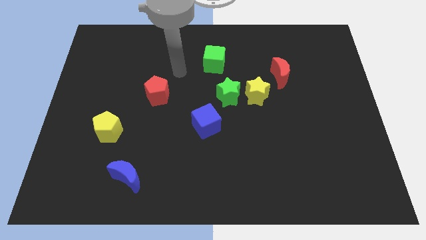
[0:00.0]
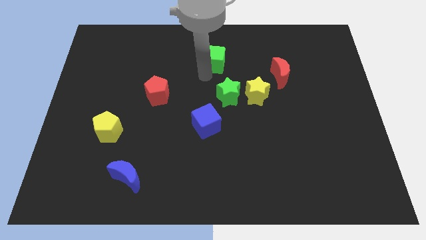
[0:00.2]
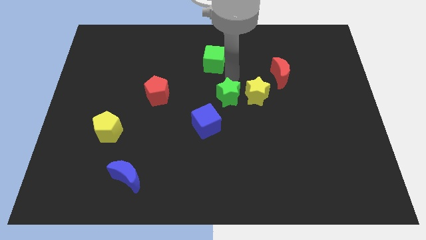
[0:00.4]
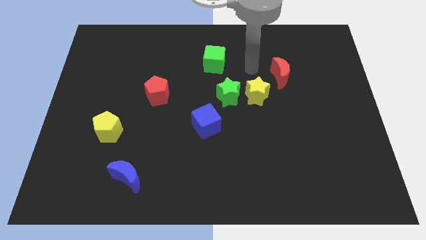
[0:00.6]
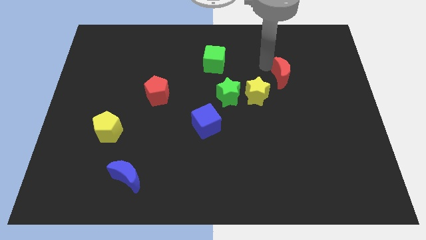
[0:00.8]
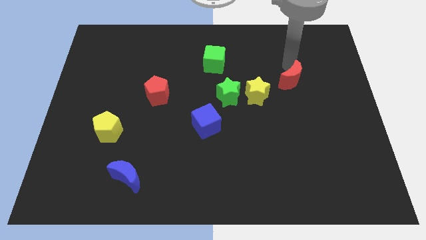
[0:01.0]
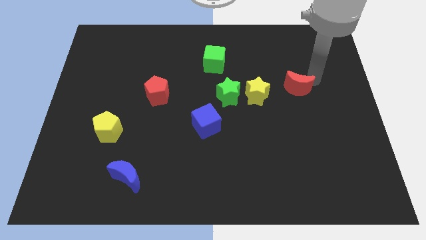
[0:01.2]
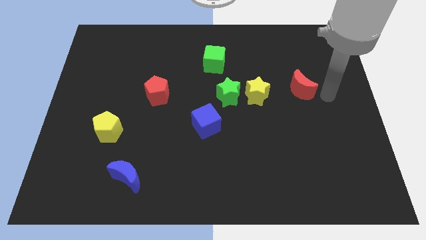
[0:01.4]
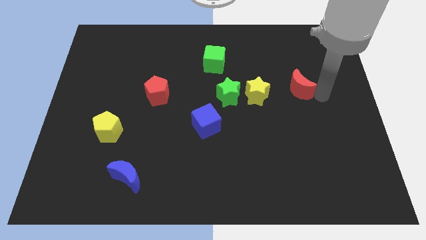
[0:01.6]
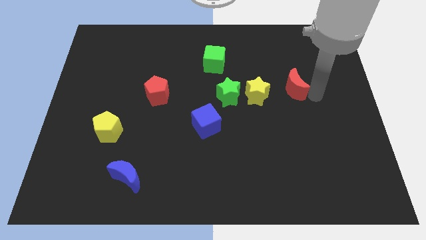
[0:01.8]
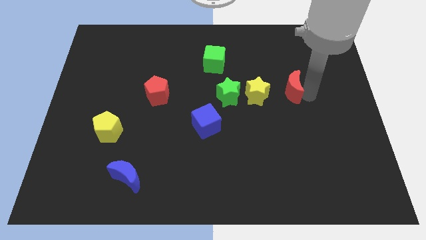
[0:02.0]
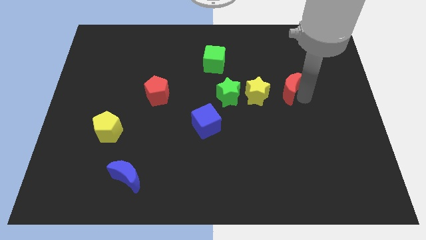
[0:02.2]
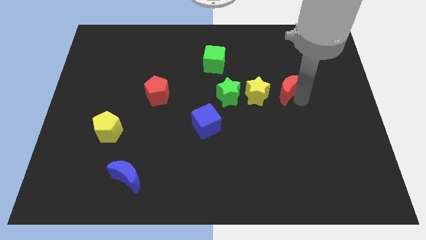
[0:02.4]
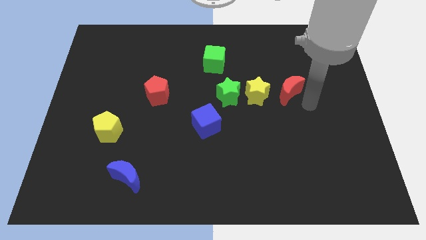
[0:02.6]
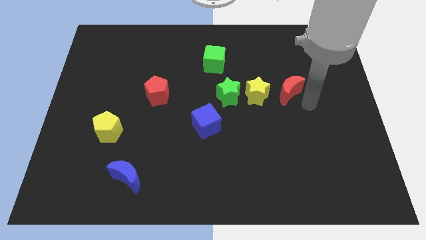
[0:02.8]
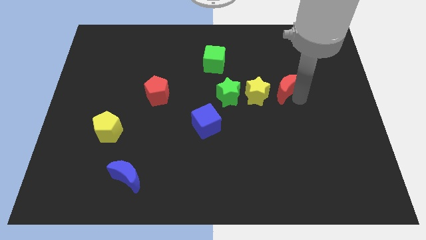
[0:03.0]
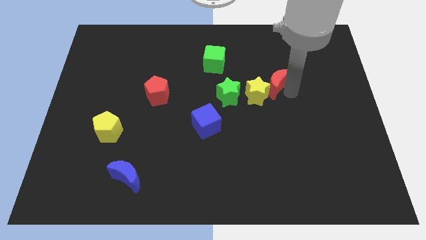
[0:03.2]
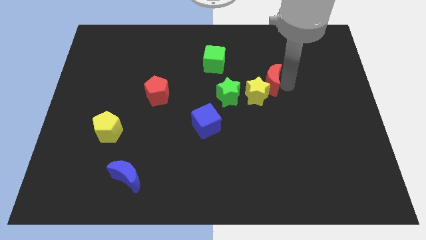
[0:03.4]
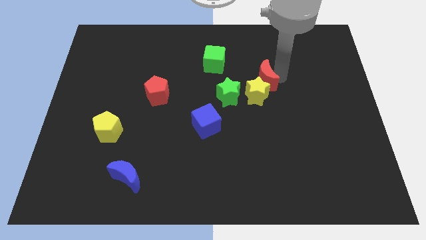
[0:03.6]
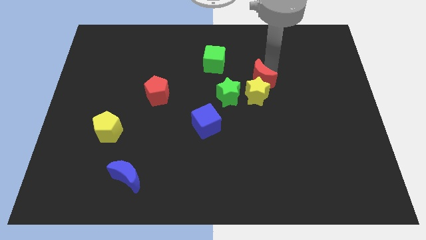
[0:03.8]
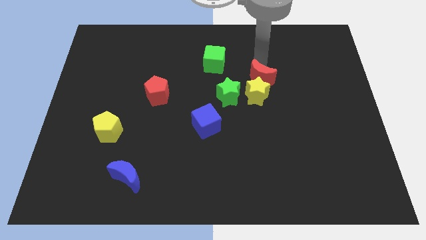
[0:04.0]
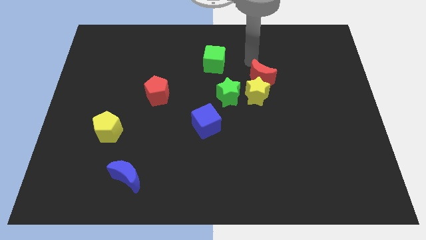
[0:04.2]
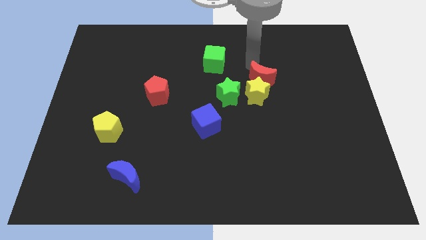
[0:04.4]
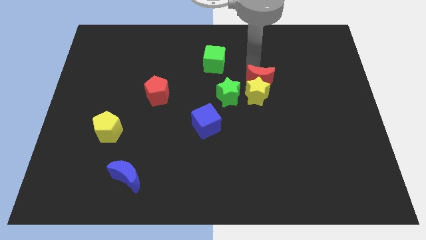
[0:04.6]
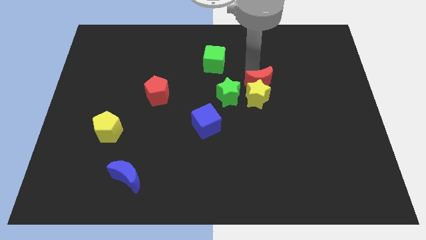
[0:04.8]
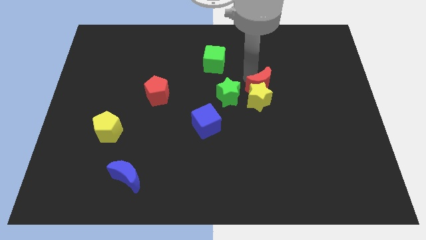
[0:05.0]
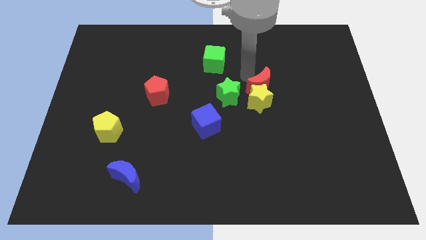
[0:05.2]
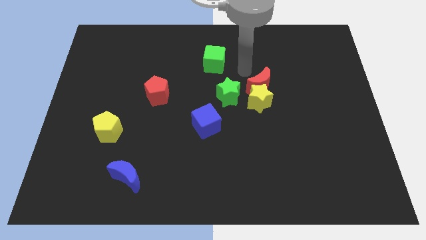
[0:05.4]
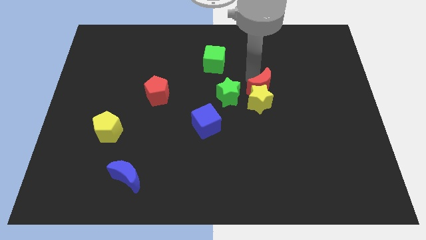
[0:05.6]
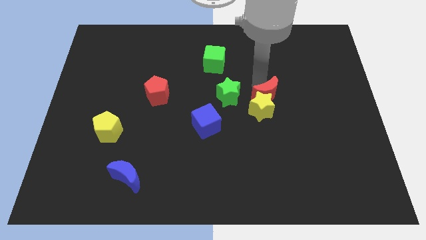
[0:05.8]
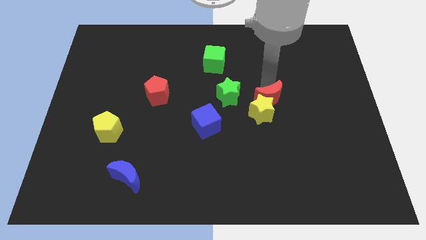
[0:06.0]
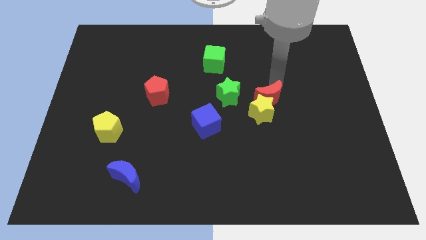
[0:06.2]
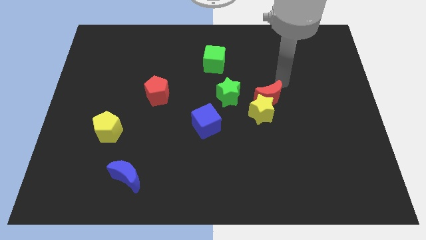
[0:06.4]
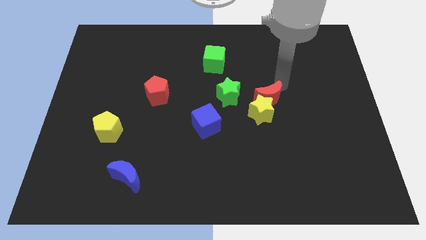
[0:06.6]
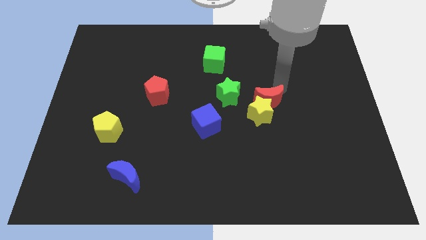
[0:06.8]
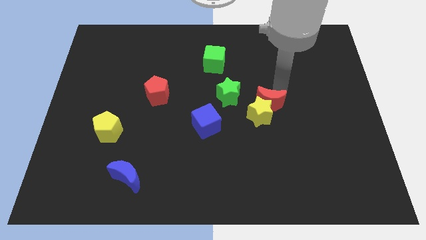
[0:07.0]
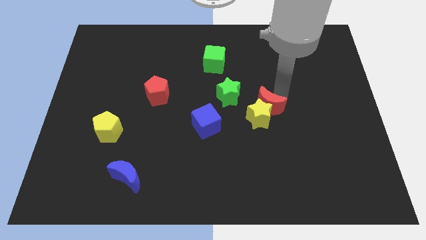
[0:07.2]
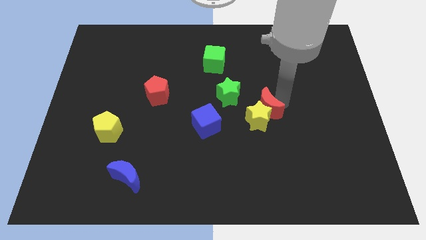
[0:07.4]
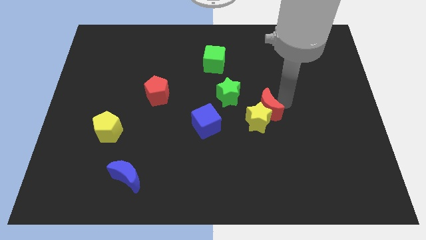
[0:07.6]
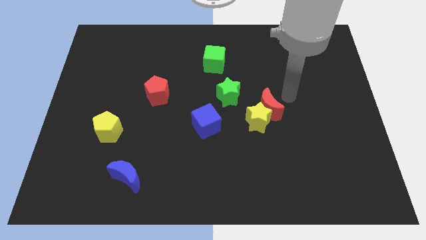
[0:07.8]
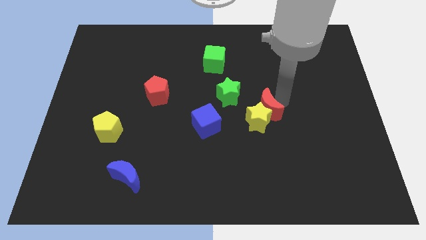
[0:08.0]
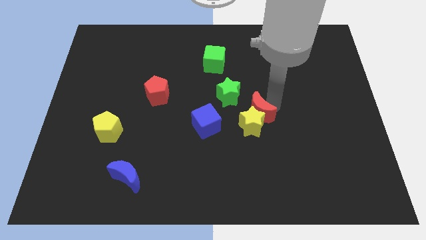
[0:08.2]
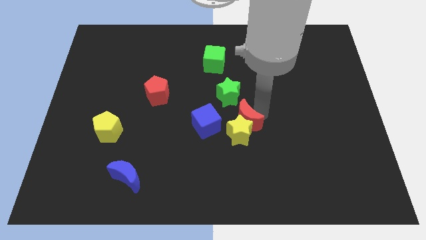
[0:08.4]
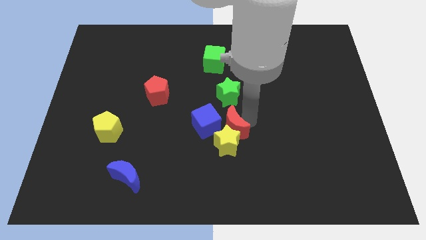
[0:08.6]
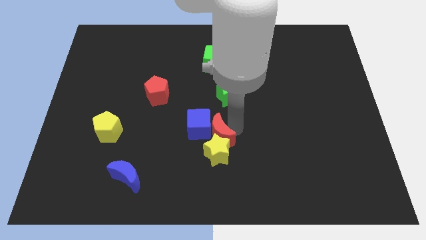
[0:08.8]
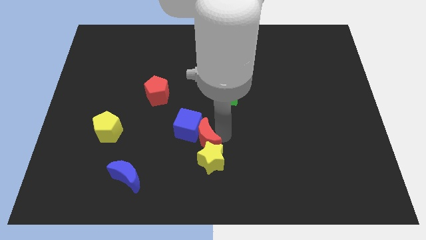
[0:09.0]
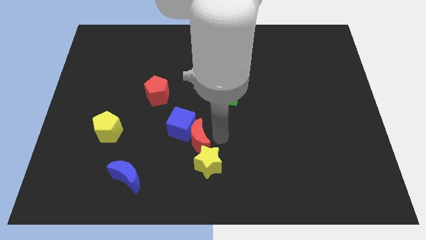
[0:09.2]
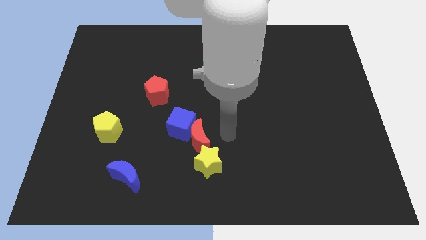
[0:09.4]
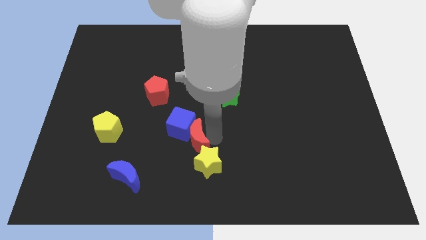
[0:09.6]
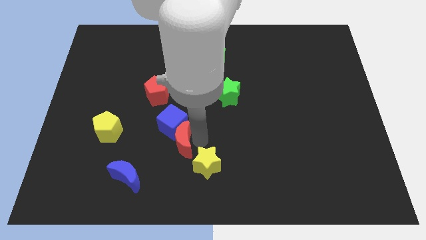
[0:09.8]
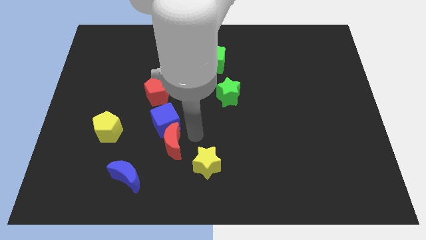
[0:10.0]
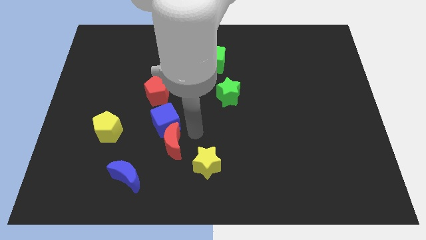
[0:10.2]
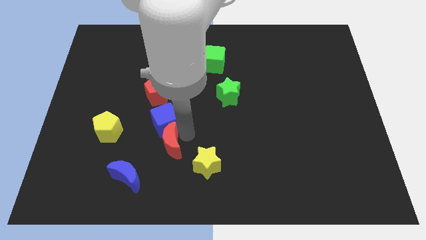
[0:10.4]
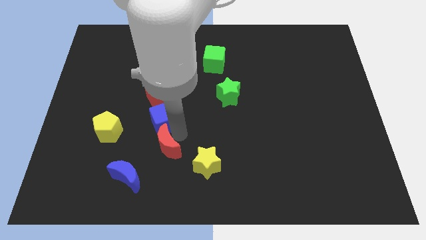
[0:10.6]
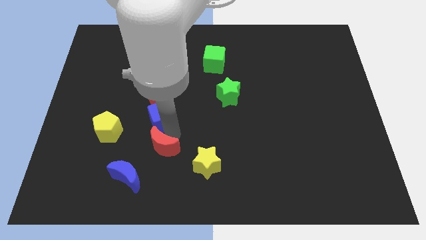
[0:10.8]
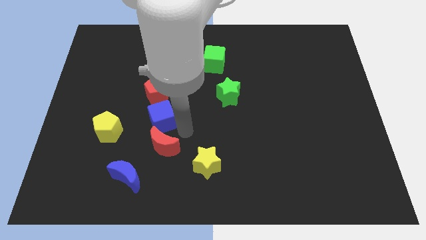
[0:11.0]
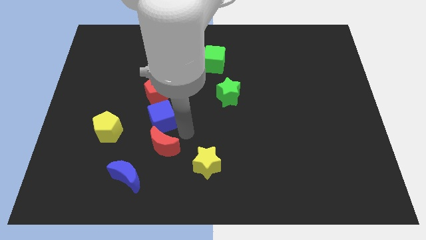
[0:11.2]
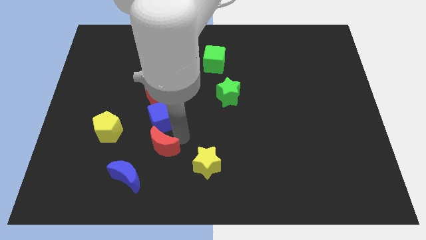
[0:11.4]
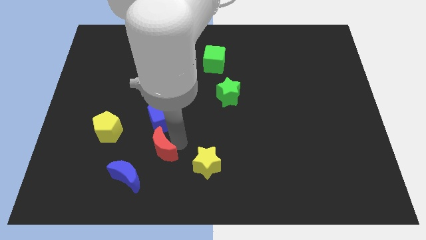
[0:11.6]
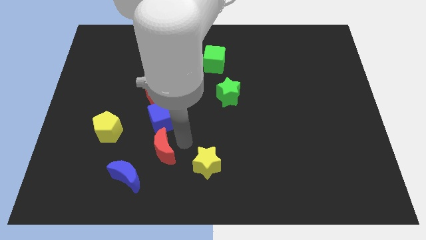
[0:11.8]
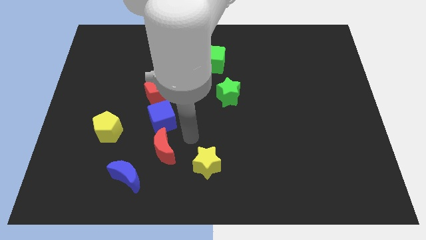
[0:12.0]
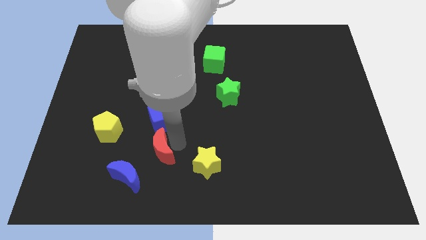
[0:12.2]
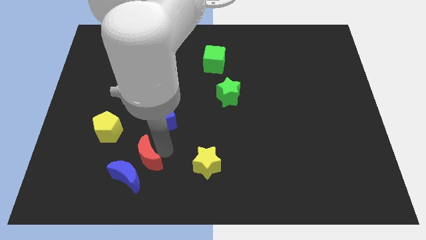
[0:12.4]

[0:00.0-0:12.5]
move the red moon to the blue moon

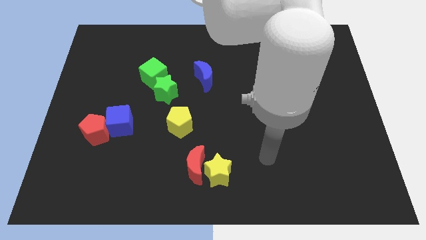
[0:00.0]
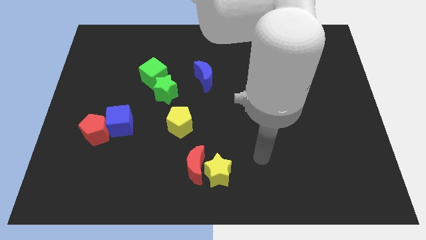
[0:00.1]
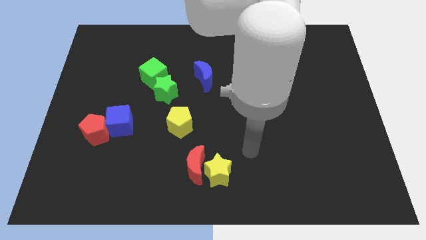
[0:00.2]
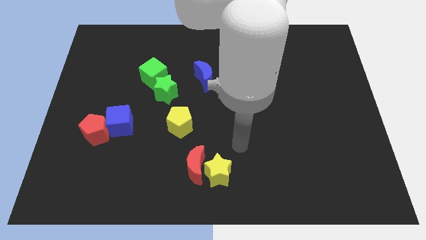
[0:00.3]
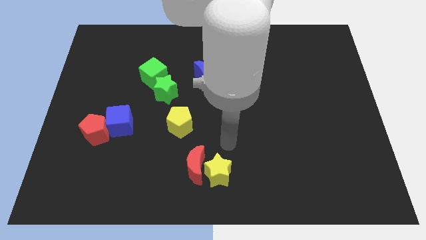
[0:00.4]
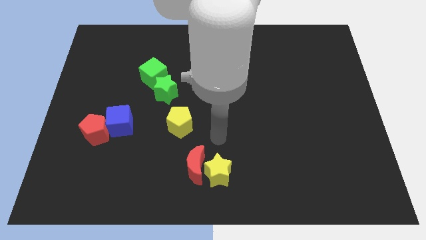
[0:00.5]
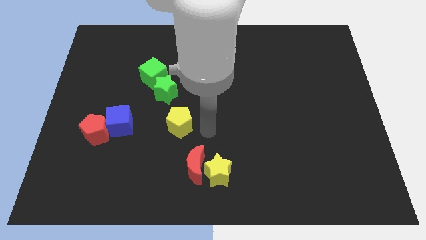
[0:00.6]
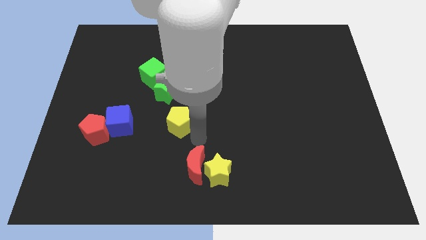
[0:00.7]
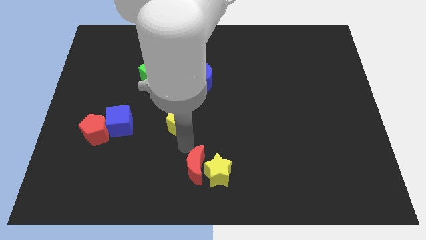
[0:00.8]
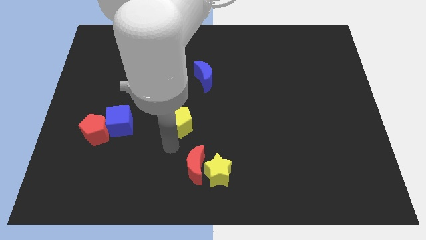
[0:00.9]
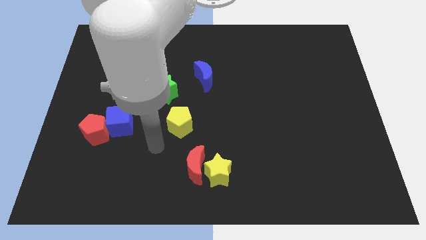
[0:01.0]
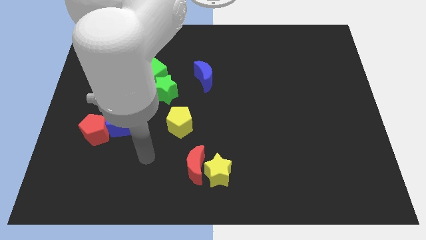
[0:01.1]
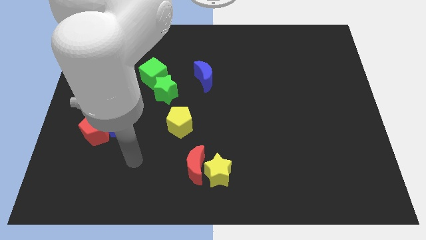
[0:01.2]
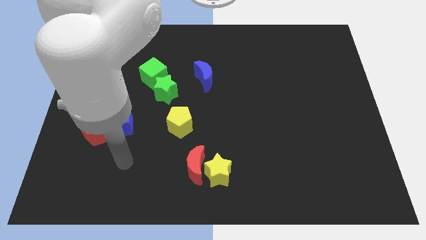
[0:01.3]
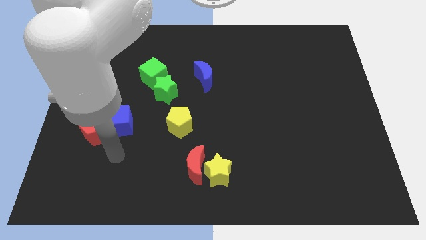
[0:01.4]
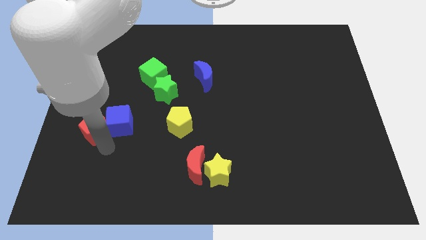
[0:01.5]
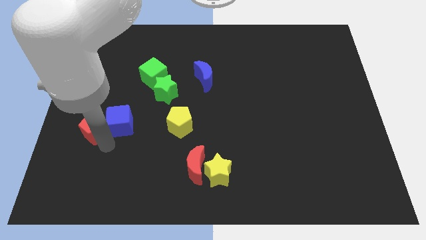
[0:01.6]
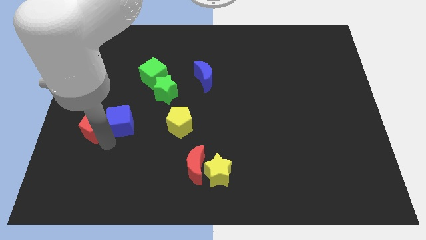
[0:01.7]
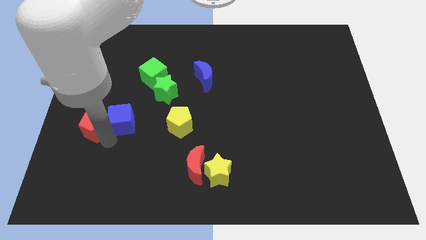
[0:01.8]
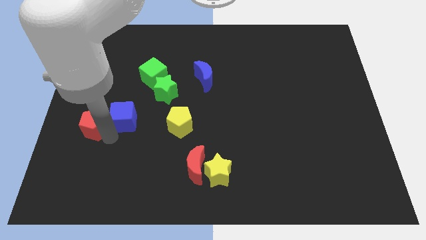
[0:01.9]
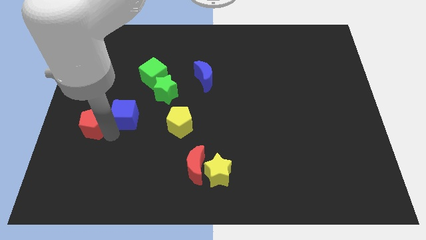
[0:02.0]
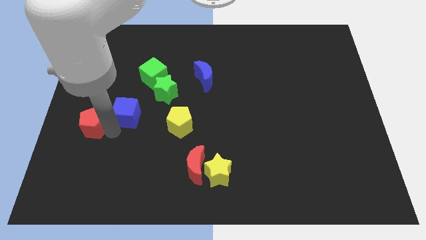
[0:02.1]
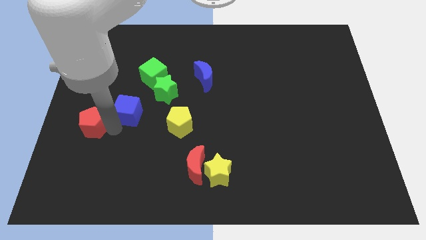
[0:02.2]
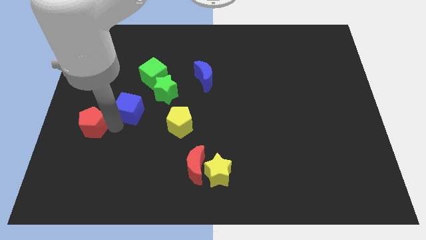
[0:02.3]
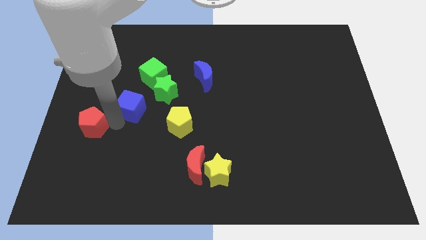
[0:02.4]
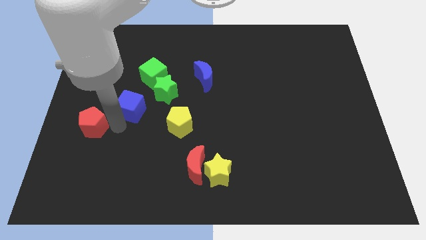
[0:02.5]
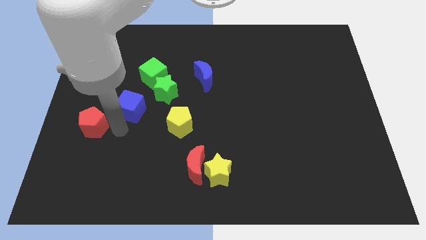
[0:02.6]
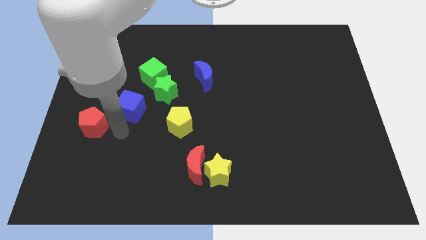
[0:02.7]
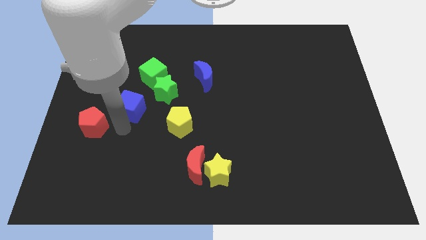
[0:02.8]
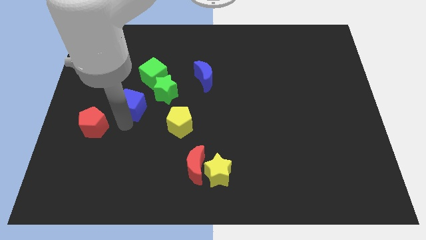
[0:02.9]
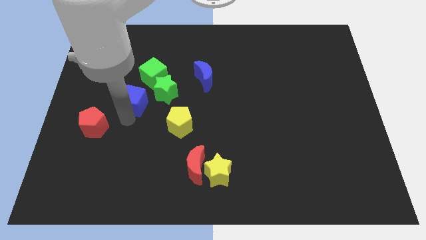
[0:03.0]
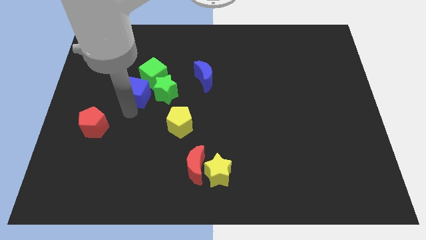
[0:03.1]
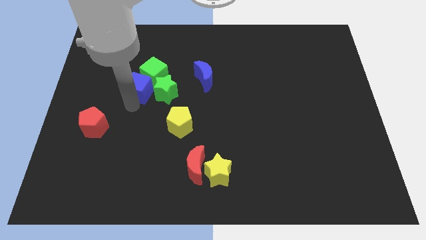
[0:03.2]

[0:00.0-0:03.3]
put the blue cube next to the green cube
